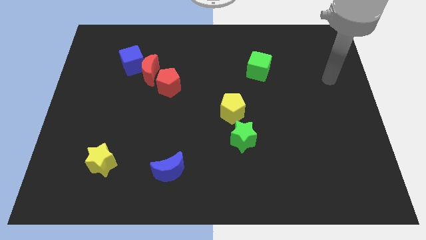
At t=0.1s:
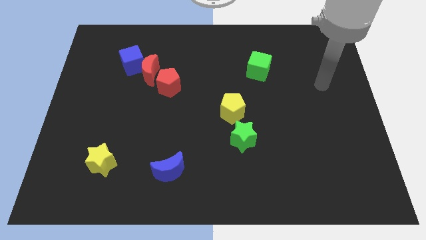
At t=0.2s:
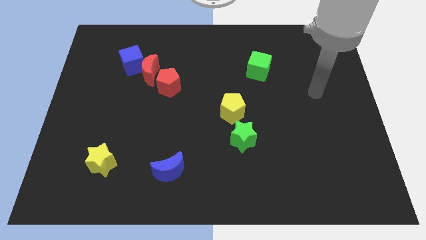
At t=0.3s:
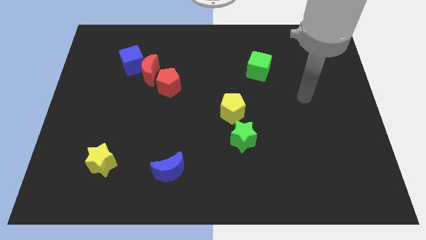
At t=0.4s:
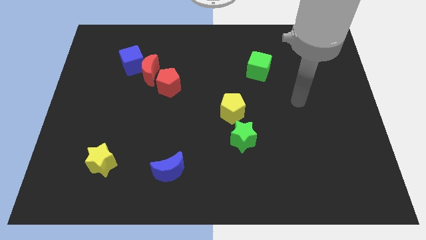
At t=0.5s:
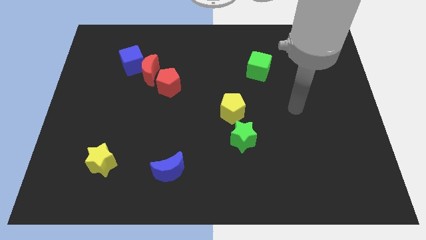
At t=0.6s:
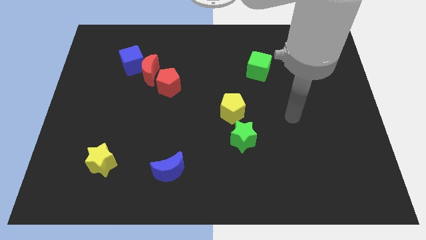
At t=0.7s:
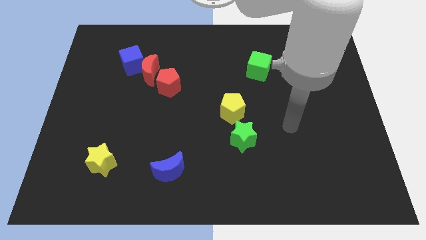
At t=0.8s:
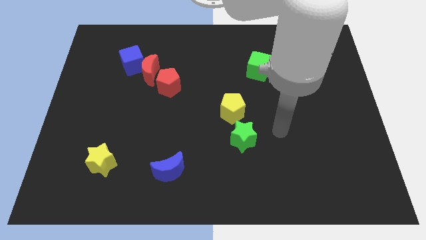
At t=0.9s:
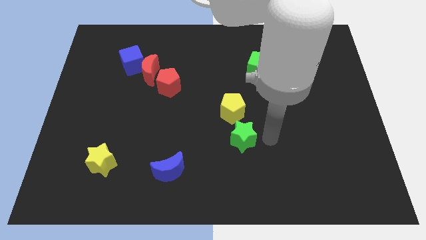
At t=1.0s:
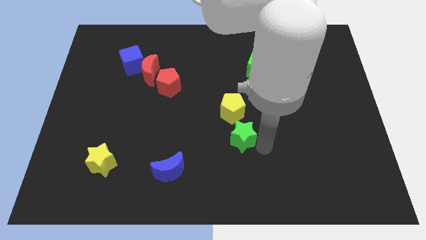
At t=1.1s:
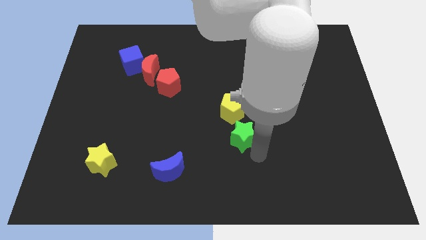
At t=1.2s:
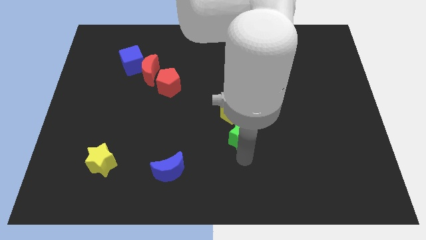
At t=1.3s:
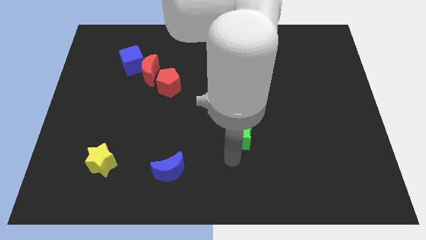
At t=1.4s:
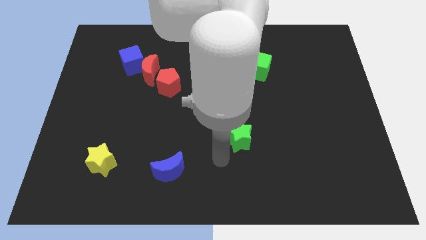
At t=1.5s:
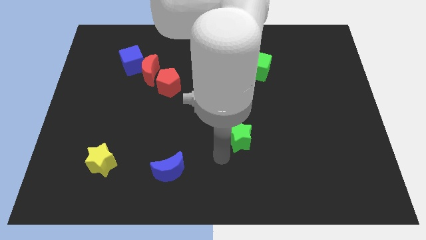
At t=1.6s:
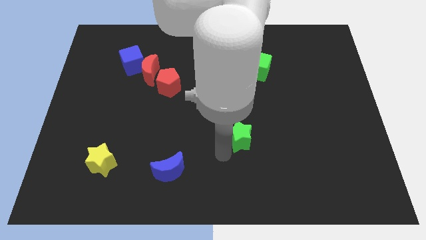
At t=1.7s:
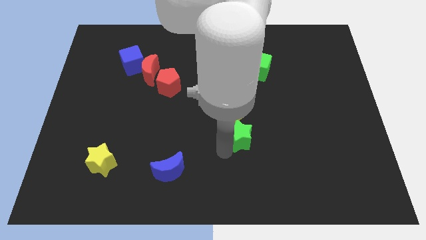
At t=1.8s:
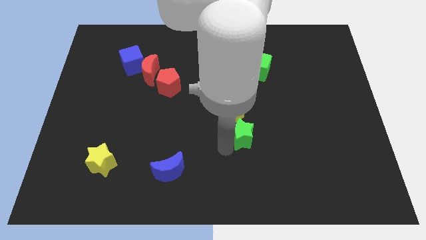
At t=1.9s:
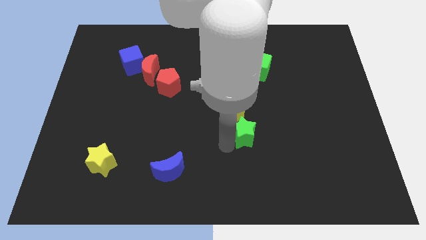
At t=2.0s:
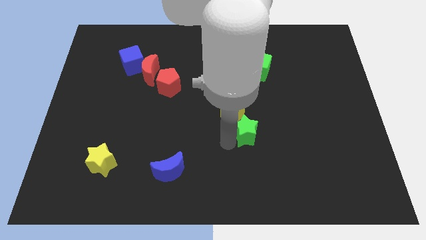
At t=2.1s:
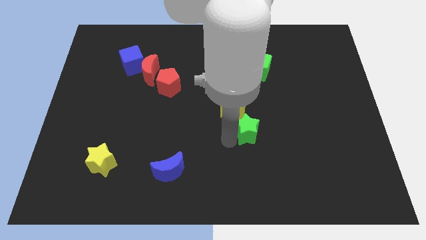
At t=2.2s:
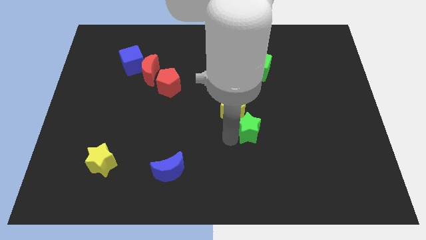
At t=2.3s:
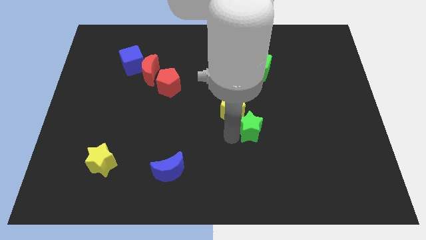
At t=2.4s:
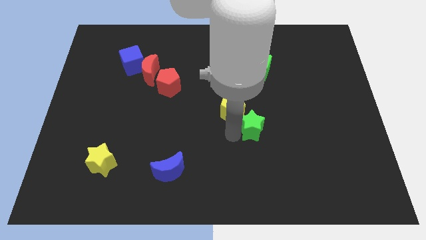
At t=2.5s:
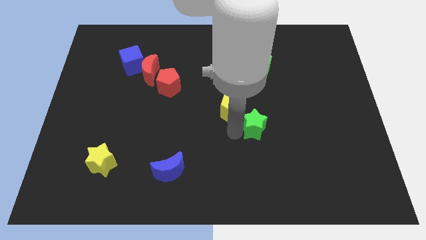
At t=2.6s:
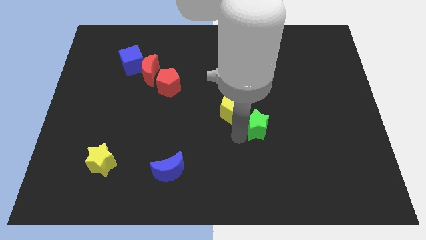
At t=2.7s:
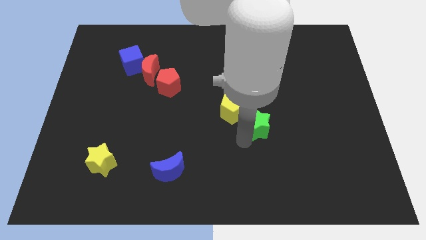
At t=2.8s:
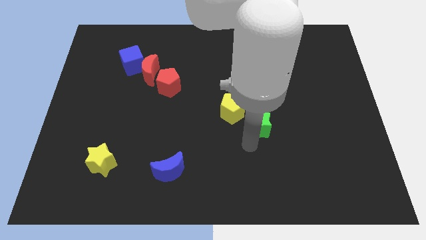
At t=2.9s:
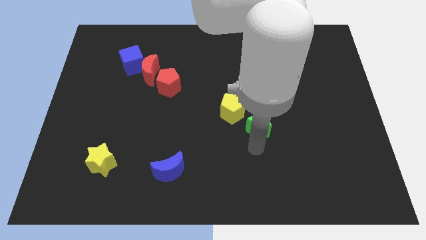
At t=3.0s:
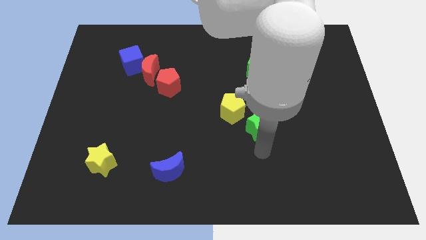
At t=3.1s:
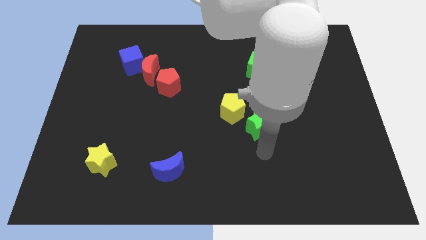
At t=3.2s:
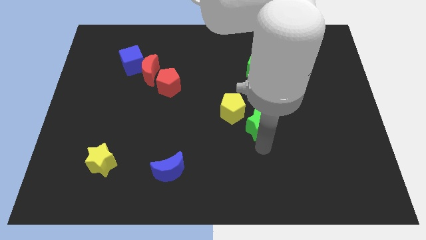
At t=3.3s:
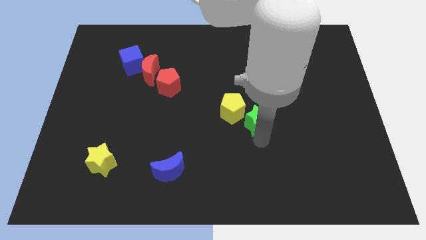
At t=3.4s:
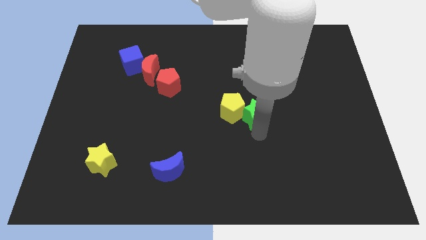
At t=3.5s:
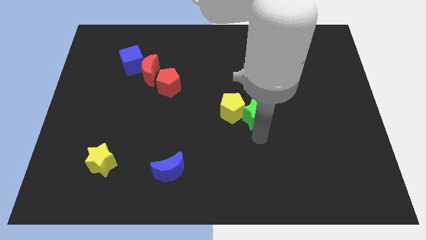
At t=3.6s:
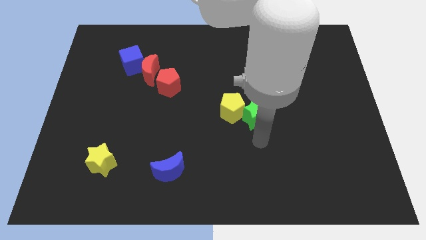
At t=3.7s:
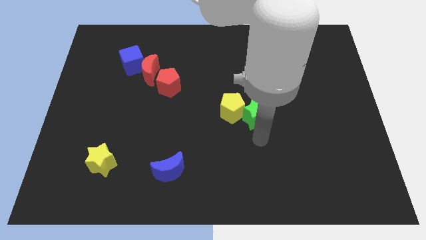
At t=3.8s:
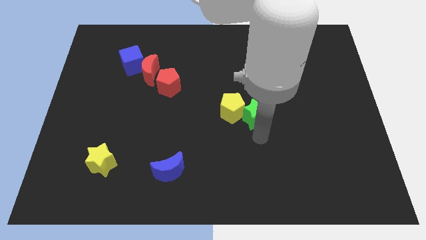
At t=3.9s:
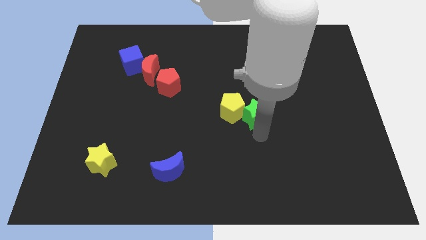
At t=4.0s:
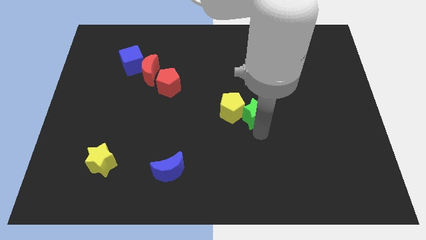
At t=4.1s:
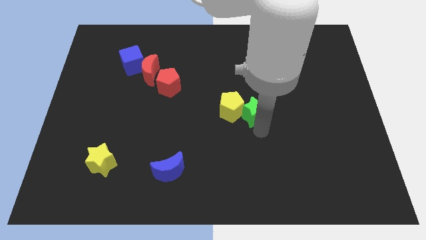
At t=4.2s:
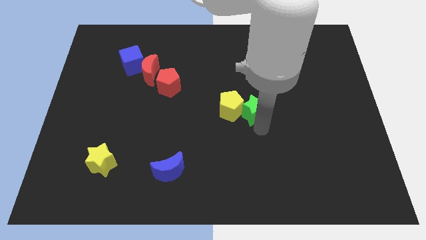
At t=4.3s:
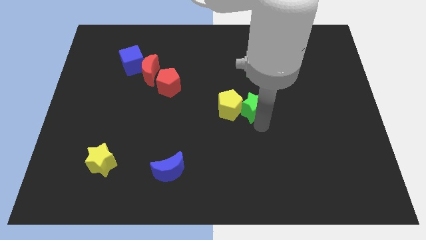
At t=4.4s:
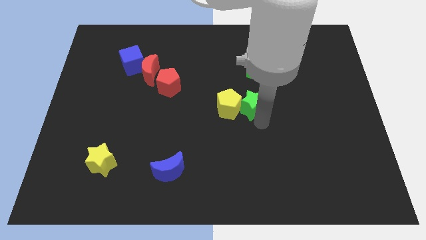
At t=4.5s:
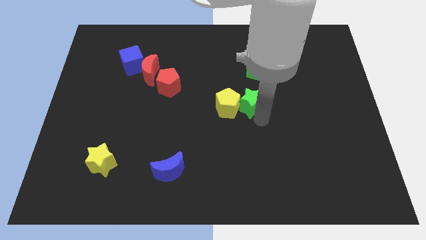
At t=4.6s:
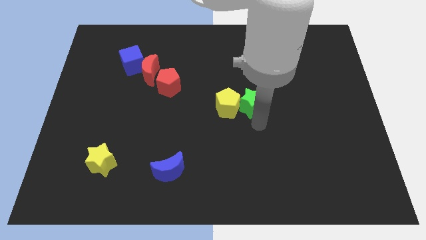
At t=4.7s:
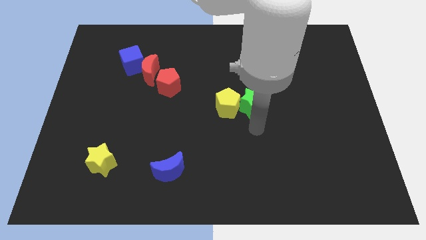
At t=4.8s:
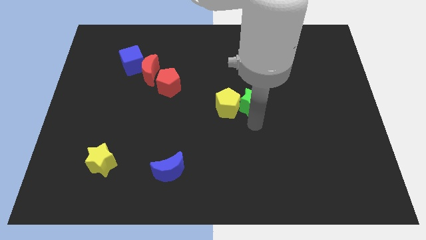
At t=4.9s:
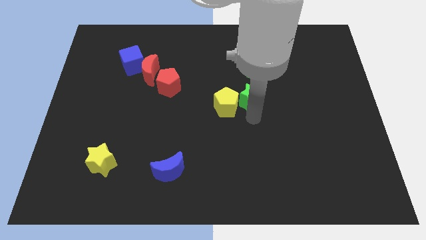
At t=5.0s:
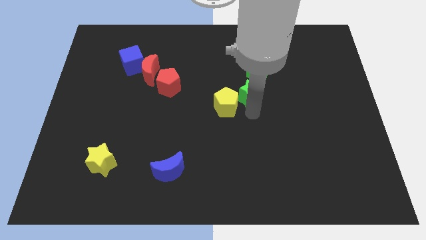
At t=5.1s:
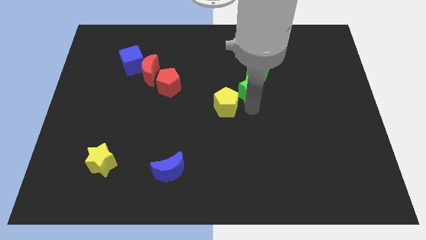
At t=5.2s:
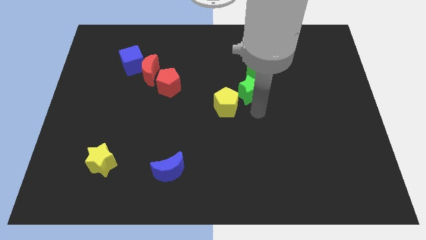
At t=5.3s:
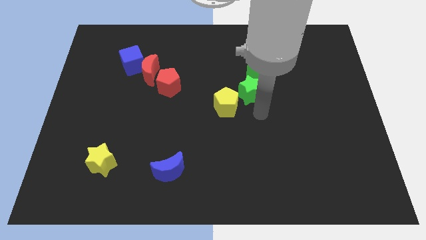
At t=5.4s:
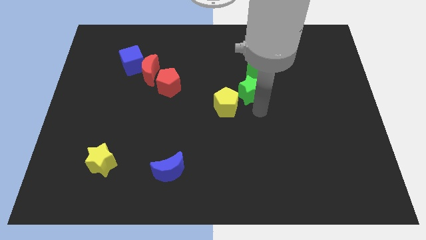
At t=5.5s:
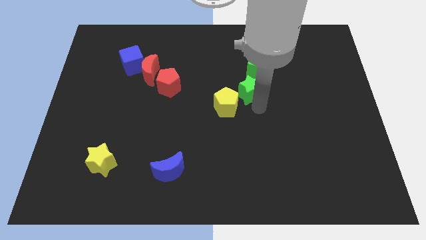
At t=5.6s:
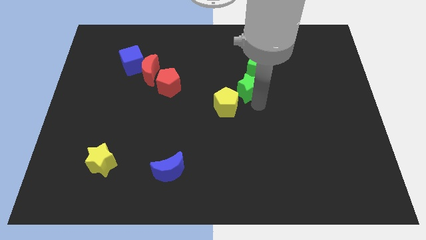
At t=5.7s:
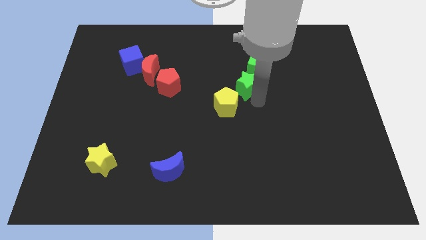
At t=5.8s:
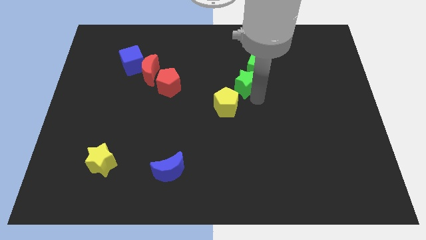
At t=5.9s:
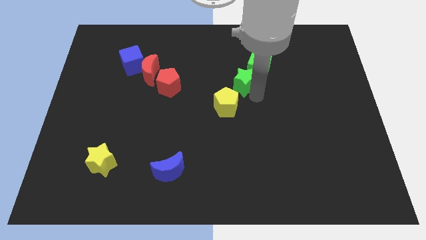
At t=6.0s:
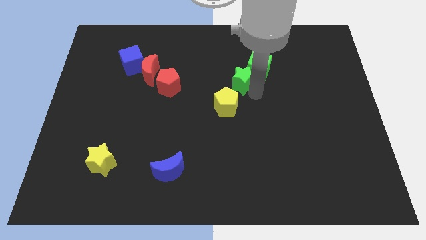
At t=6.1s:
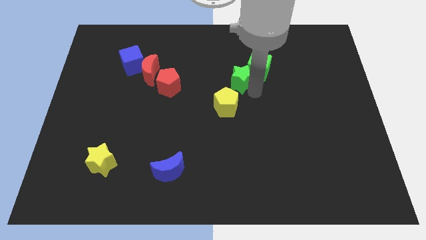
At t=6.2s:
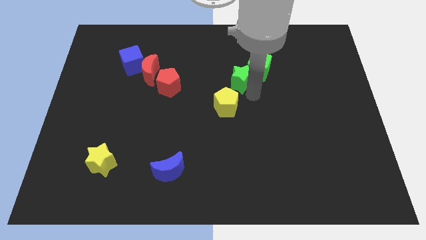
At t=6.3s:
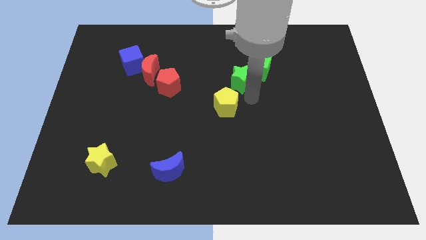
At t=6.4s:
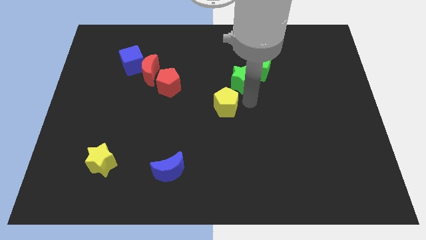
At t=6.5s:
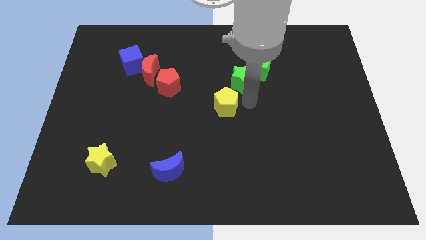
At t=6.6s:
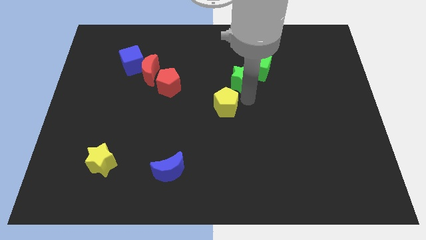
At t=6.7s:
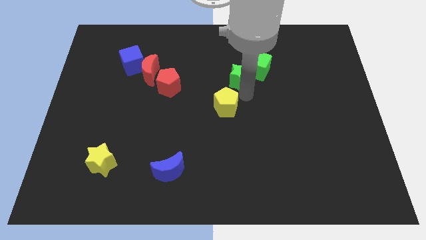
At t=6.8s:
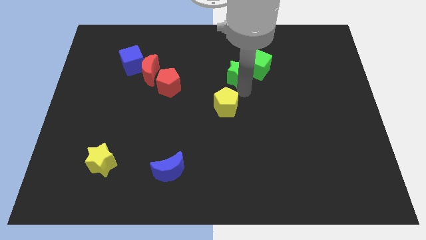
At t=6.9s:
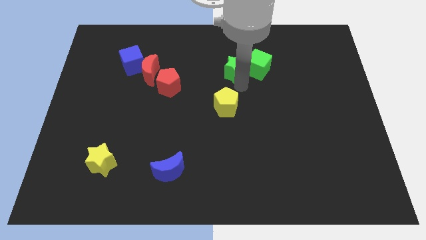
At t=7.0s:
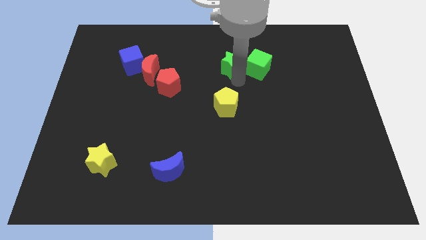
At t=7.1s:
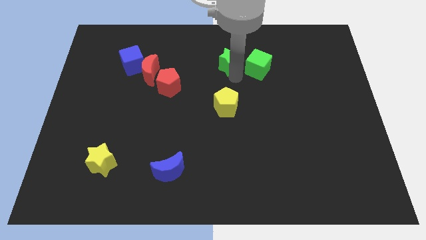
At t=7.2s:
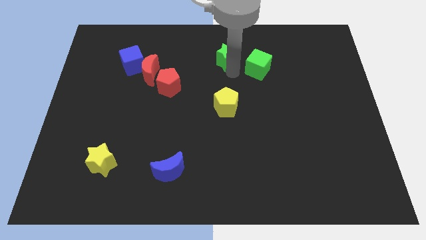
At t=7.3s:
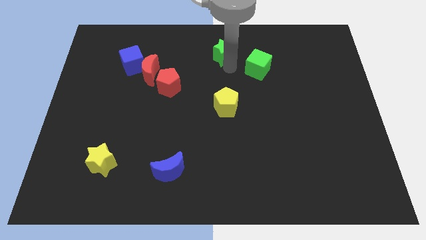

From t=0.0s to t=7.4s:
slide the green star to the top side
